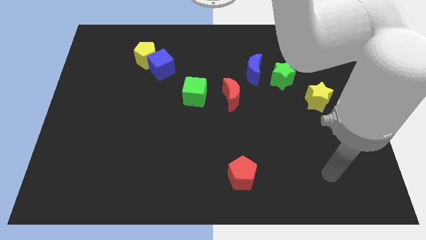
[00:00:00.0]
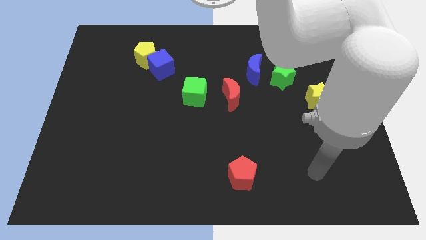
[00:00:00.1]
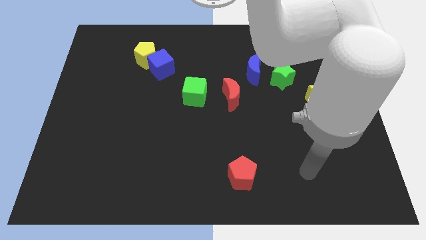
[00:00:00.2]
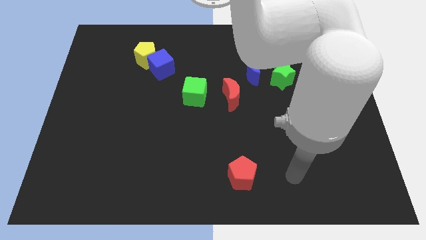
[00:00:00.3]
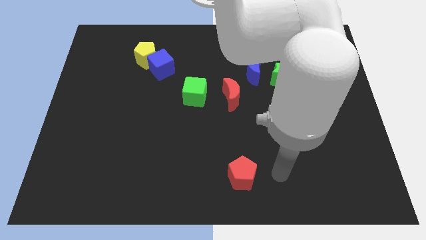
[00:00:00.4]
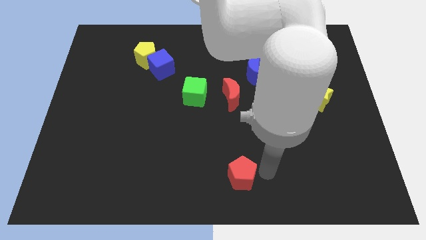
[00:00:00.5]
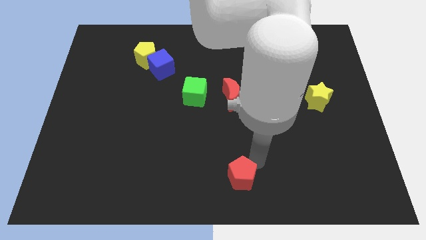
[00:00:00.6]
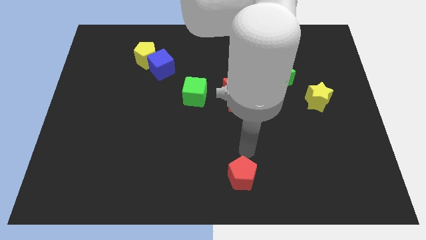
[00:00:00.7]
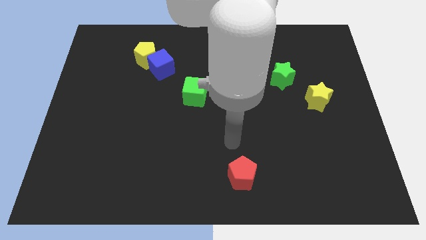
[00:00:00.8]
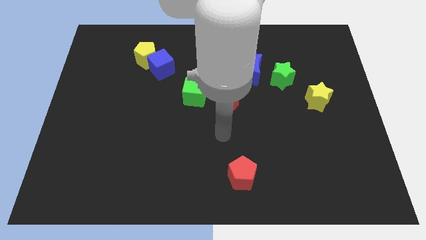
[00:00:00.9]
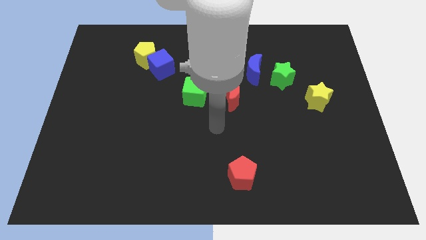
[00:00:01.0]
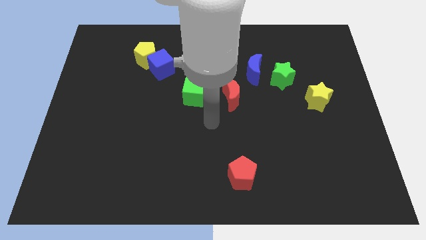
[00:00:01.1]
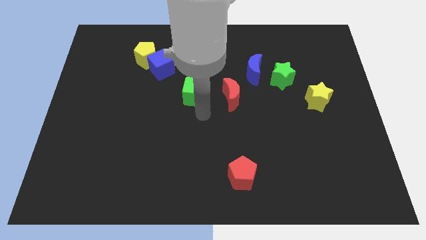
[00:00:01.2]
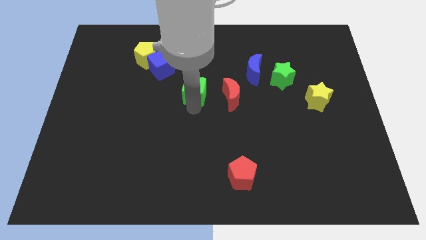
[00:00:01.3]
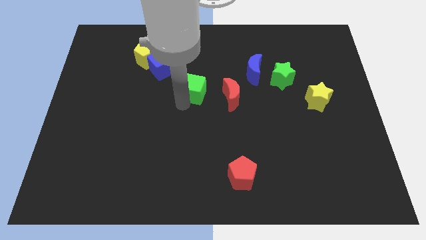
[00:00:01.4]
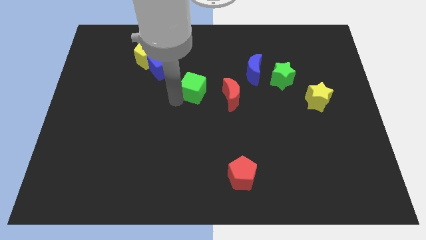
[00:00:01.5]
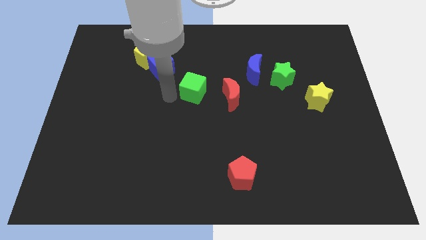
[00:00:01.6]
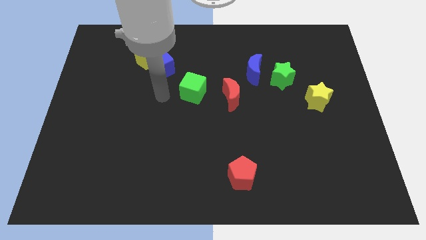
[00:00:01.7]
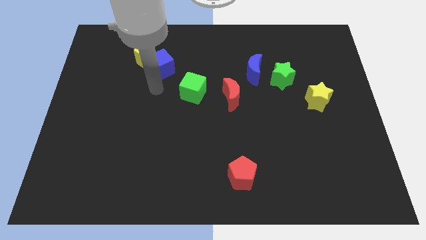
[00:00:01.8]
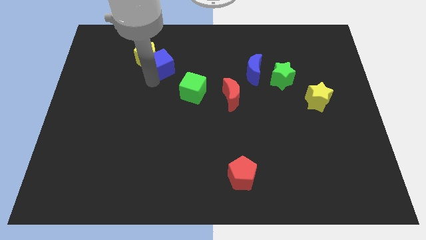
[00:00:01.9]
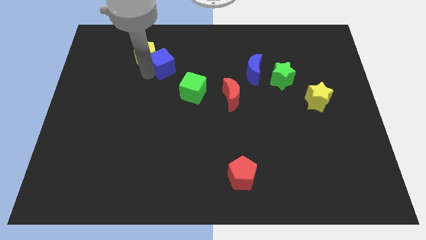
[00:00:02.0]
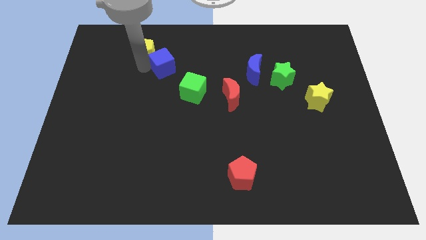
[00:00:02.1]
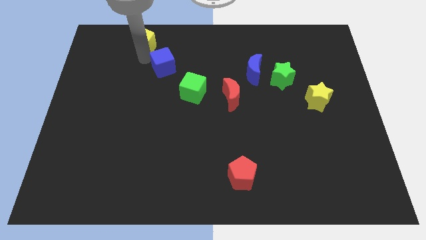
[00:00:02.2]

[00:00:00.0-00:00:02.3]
move the blue cube away from the yellow pentagon

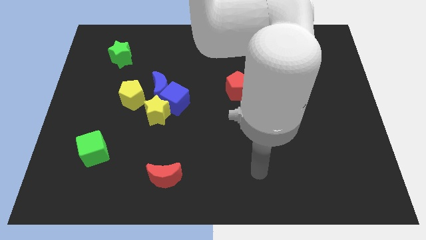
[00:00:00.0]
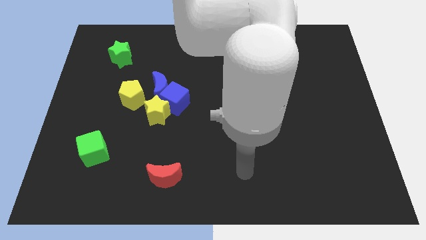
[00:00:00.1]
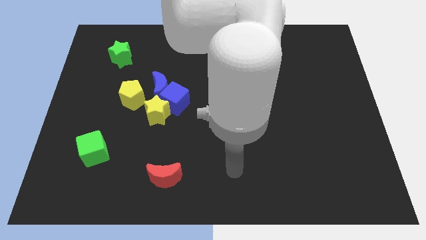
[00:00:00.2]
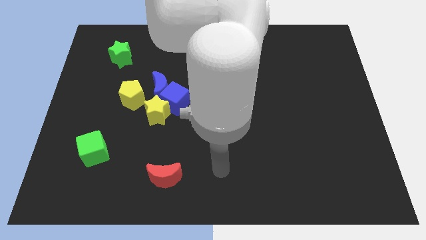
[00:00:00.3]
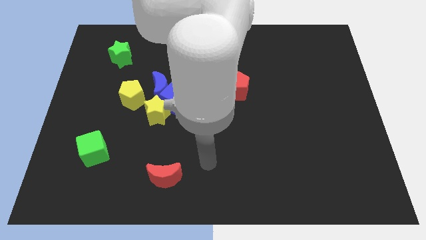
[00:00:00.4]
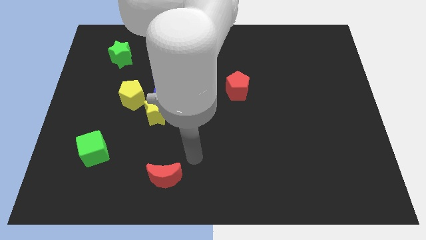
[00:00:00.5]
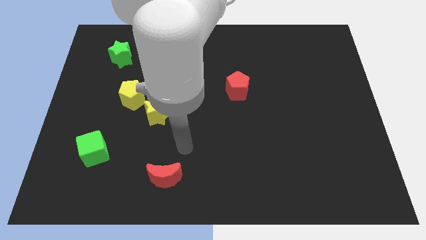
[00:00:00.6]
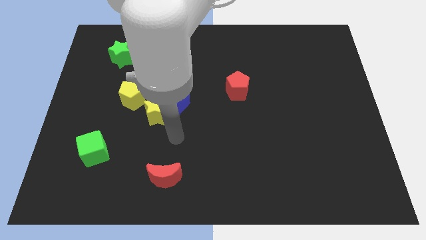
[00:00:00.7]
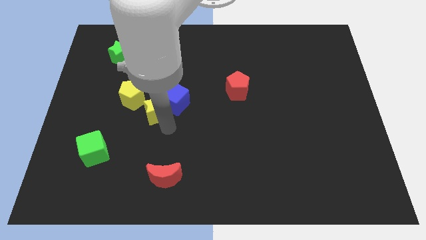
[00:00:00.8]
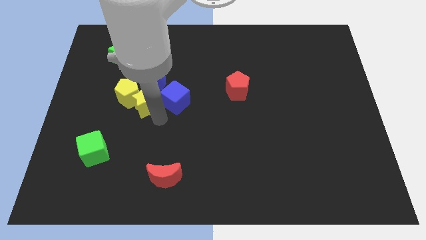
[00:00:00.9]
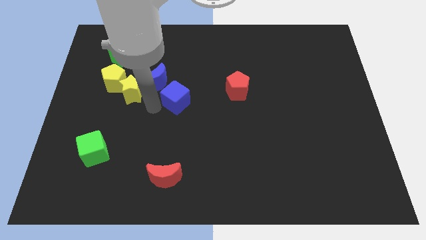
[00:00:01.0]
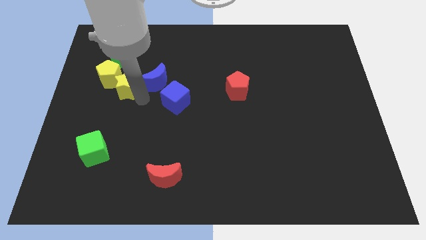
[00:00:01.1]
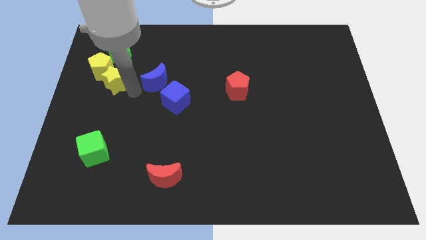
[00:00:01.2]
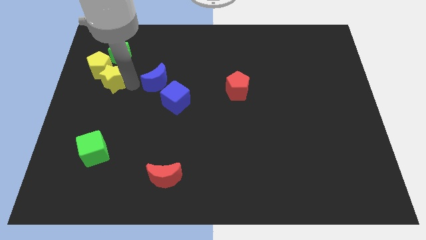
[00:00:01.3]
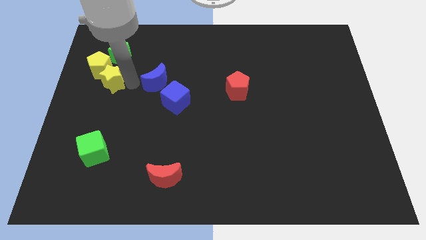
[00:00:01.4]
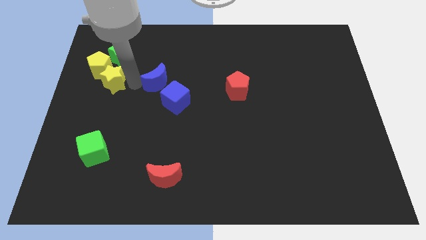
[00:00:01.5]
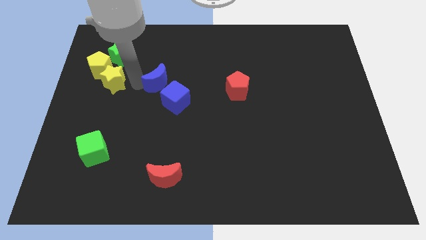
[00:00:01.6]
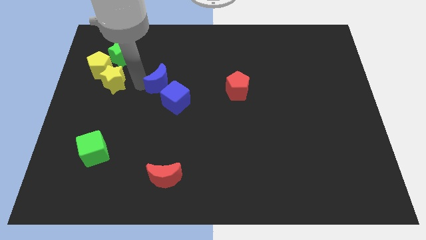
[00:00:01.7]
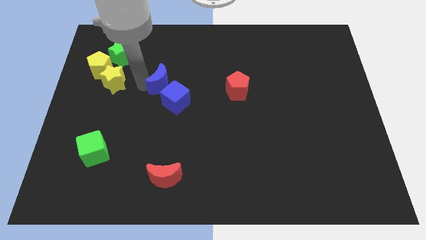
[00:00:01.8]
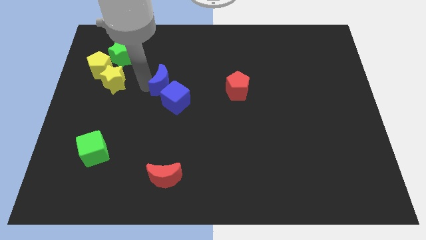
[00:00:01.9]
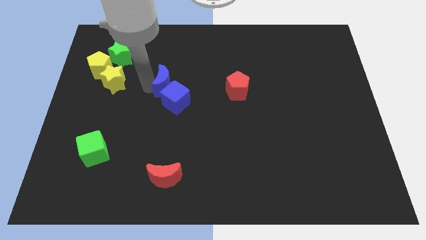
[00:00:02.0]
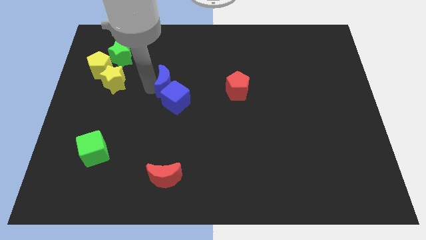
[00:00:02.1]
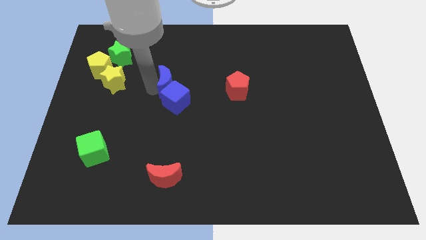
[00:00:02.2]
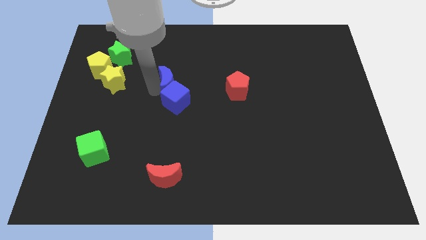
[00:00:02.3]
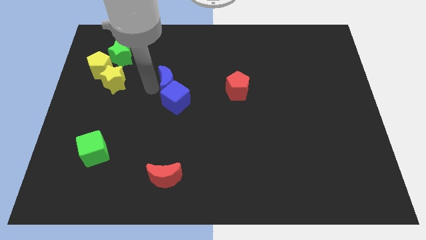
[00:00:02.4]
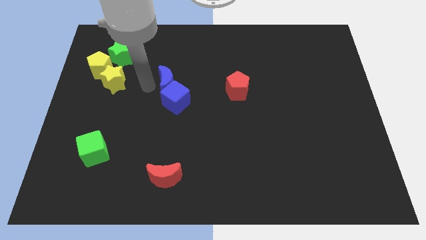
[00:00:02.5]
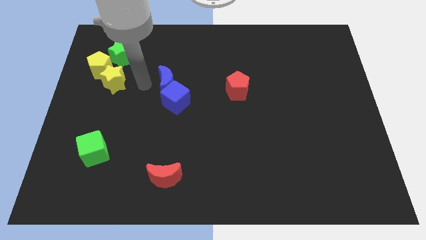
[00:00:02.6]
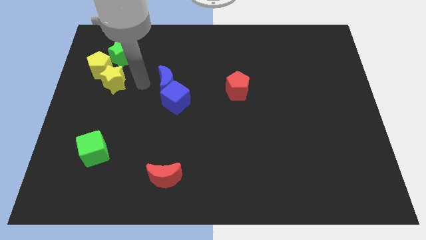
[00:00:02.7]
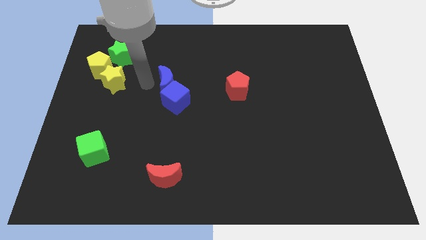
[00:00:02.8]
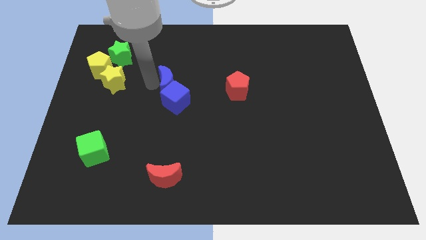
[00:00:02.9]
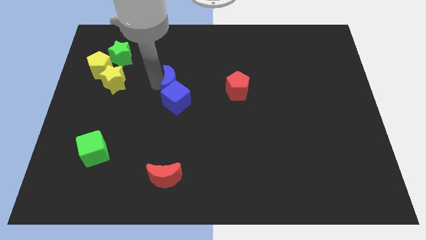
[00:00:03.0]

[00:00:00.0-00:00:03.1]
pull the blue moon apart from the clump

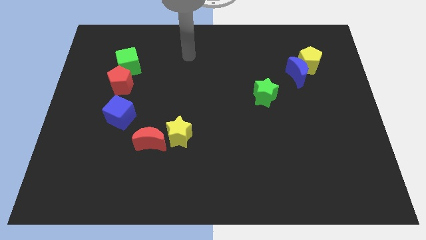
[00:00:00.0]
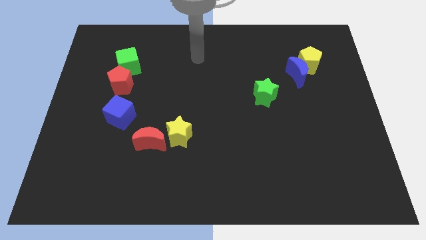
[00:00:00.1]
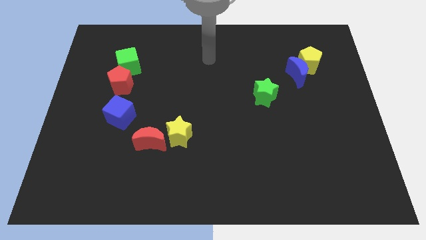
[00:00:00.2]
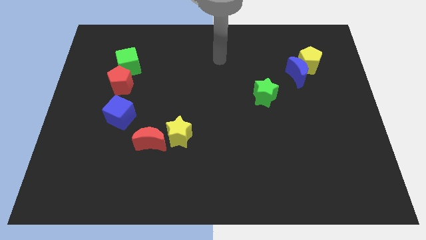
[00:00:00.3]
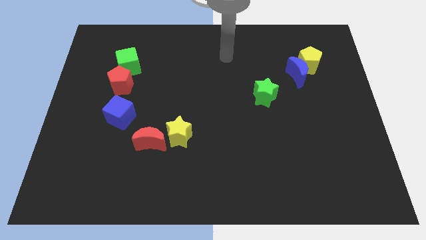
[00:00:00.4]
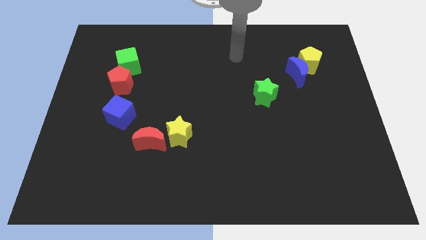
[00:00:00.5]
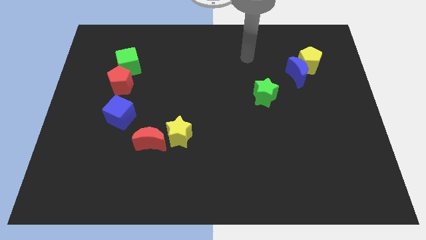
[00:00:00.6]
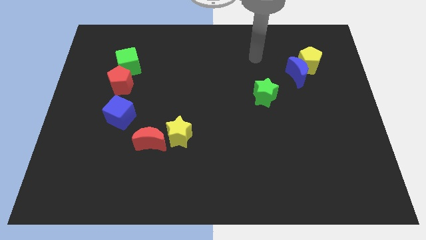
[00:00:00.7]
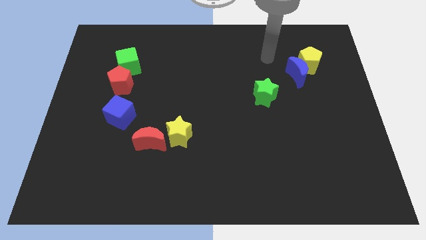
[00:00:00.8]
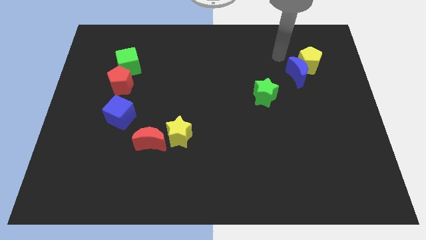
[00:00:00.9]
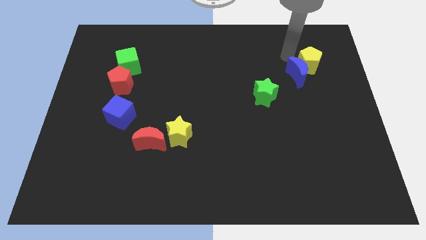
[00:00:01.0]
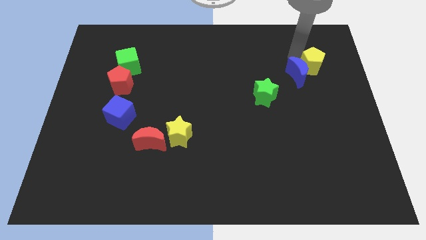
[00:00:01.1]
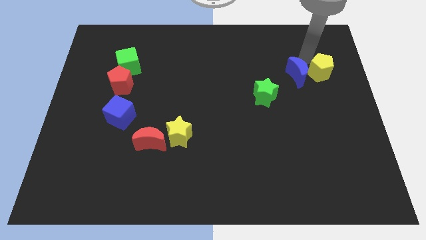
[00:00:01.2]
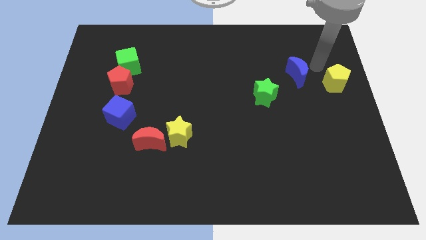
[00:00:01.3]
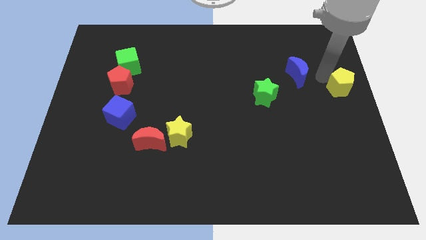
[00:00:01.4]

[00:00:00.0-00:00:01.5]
move the blue moon away from the yellow pentagon

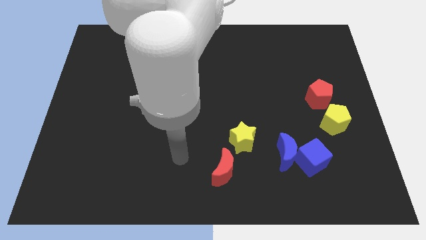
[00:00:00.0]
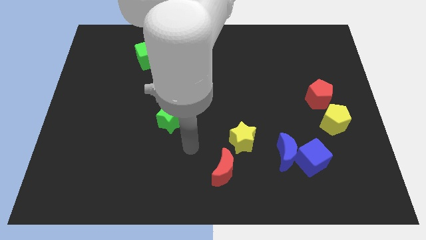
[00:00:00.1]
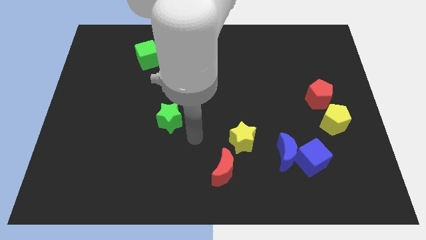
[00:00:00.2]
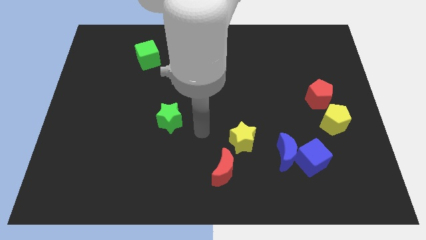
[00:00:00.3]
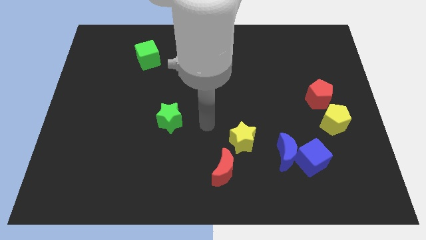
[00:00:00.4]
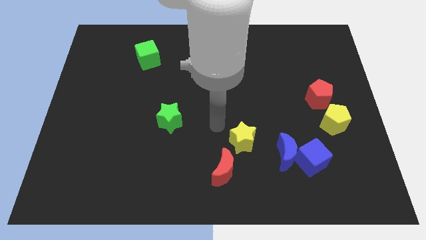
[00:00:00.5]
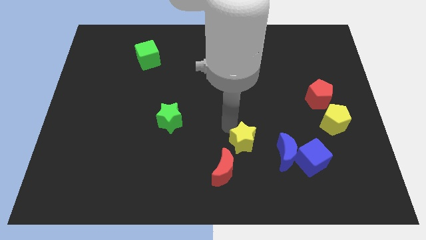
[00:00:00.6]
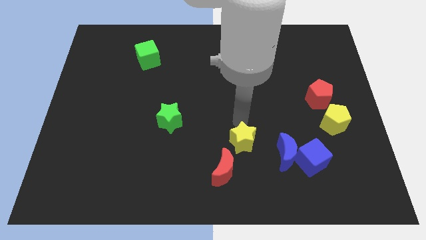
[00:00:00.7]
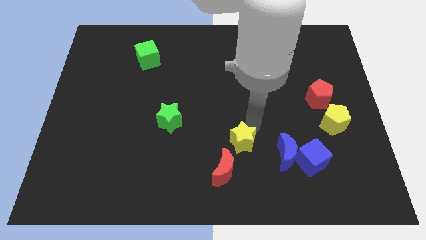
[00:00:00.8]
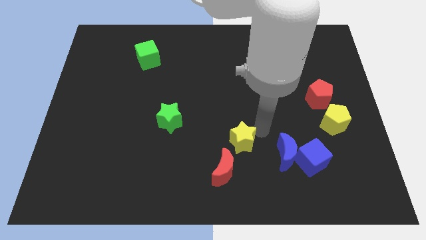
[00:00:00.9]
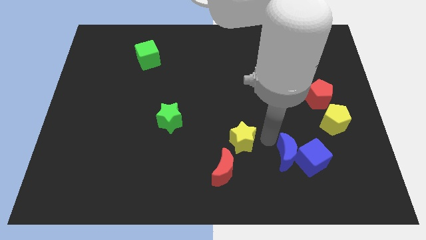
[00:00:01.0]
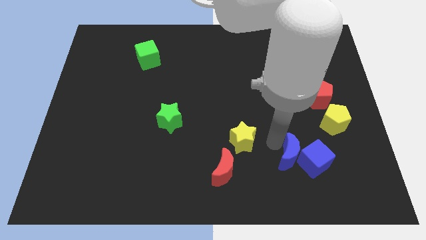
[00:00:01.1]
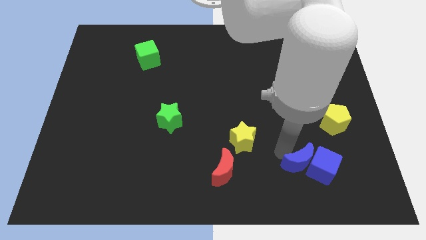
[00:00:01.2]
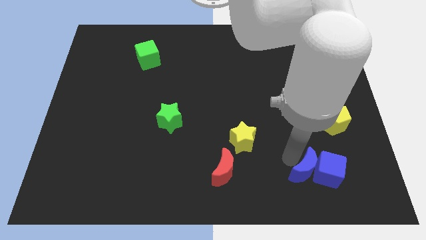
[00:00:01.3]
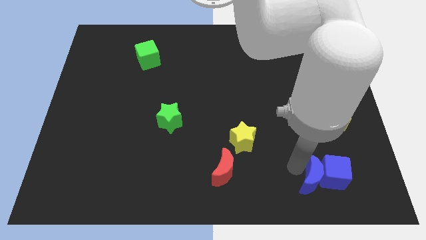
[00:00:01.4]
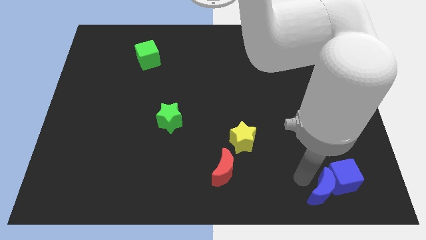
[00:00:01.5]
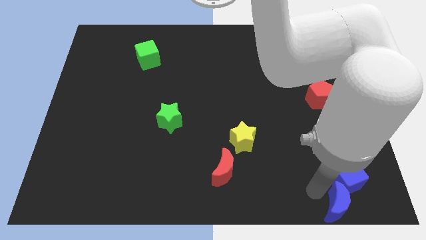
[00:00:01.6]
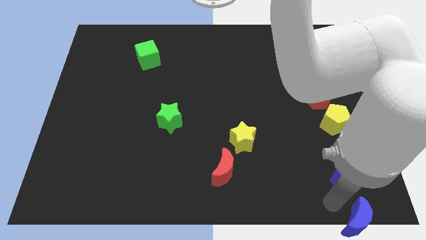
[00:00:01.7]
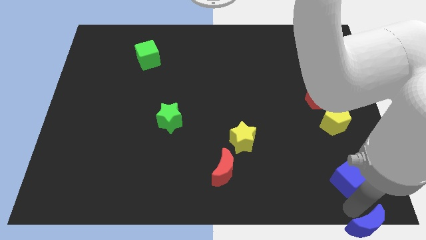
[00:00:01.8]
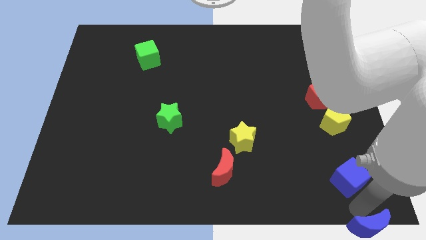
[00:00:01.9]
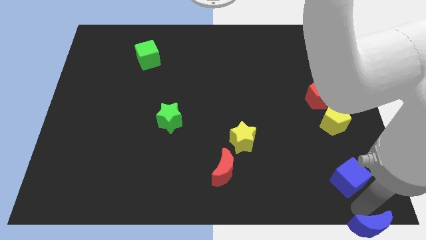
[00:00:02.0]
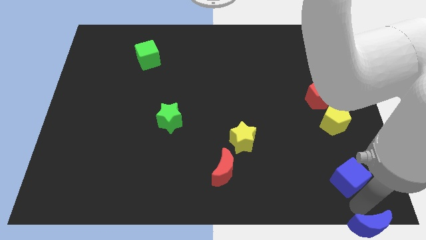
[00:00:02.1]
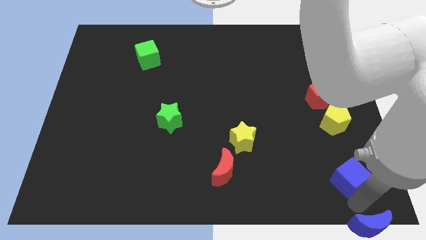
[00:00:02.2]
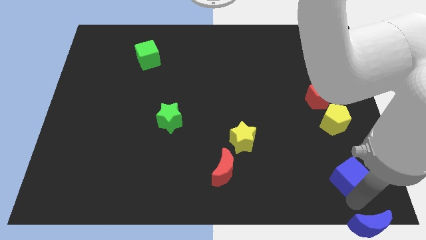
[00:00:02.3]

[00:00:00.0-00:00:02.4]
move the blue cube away from the blue moon
